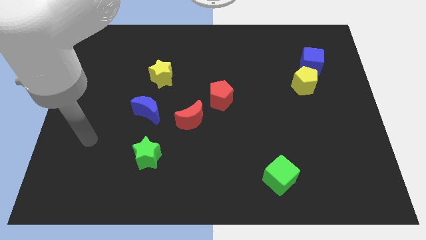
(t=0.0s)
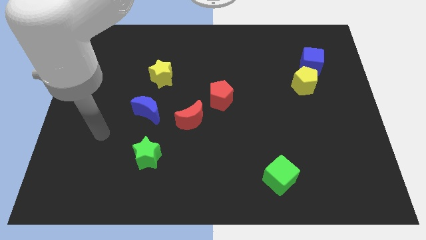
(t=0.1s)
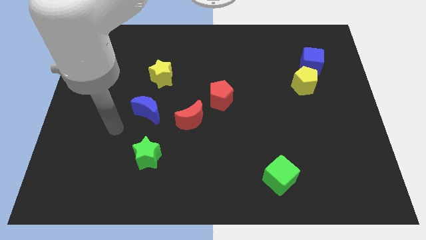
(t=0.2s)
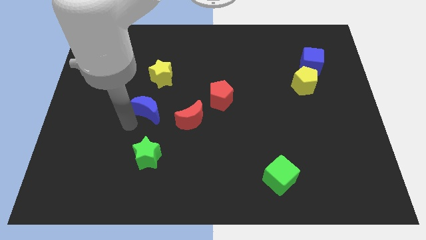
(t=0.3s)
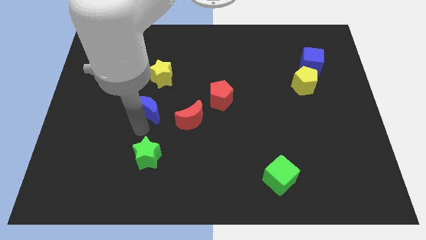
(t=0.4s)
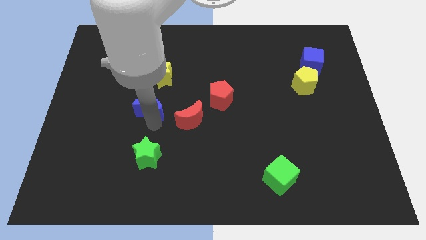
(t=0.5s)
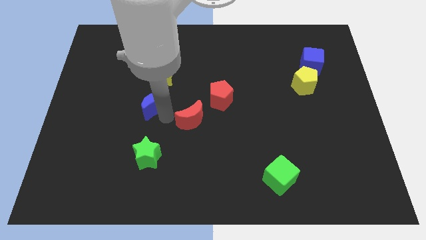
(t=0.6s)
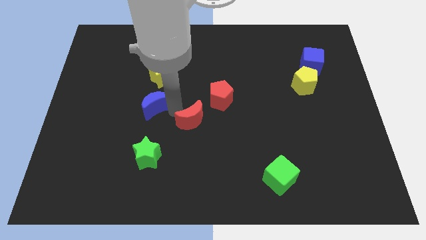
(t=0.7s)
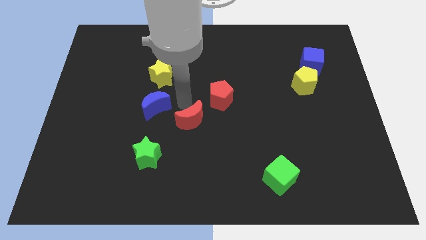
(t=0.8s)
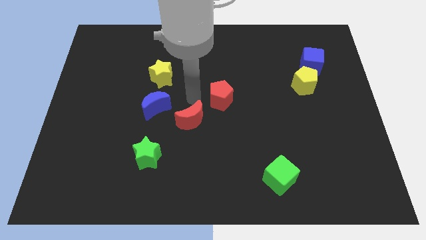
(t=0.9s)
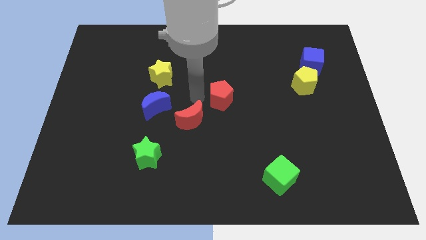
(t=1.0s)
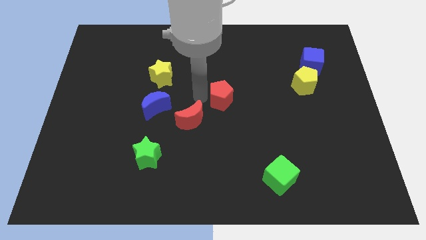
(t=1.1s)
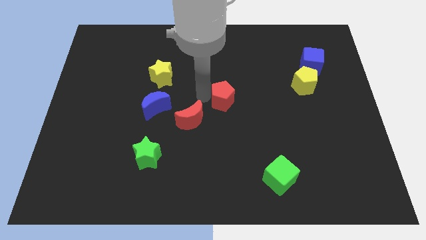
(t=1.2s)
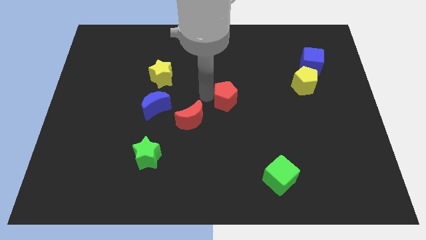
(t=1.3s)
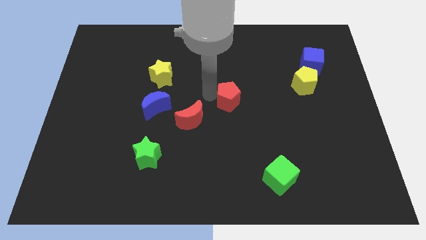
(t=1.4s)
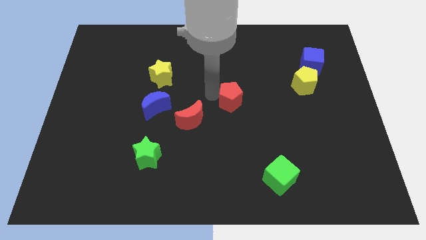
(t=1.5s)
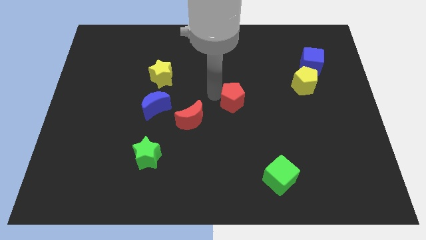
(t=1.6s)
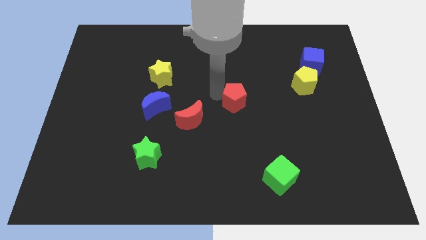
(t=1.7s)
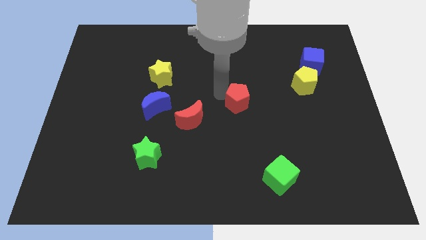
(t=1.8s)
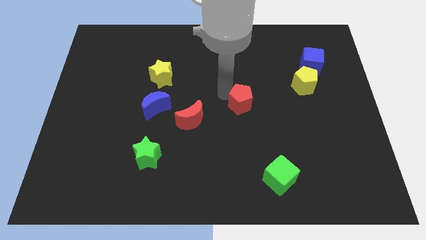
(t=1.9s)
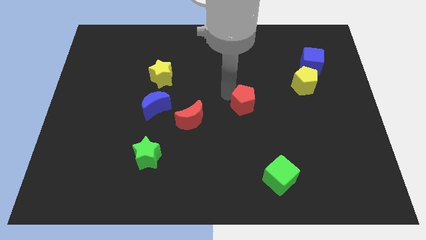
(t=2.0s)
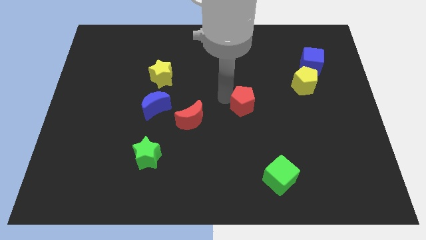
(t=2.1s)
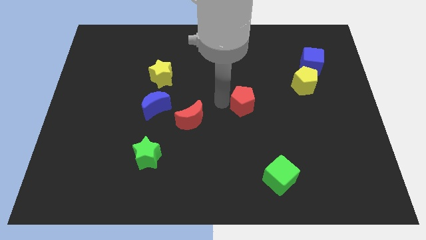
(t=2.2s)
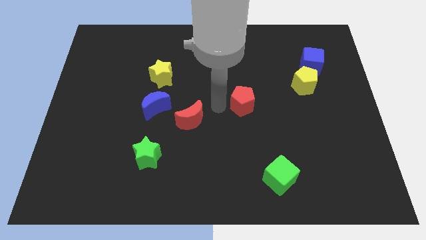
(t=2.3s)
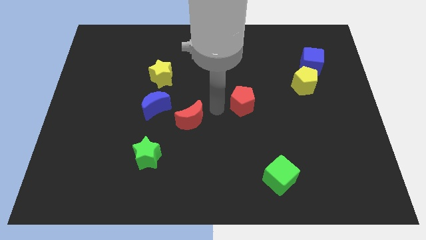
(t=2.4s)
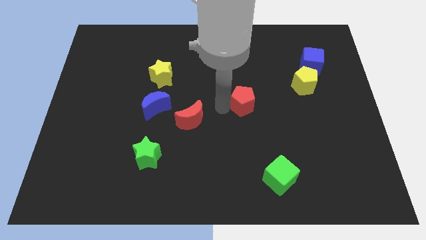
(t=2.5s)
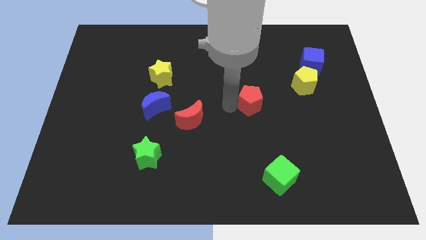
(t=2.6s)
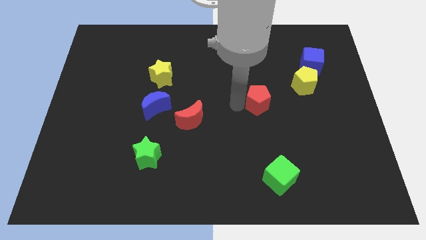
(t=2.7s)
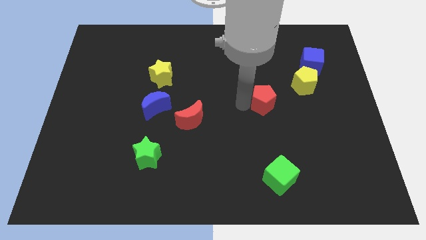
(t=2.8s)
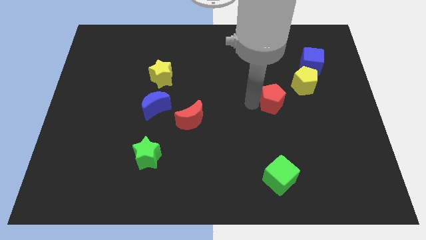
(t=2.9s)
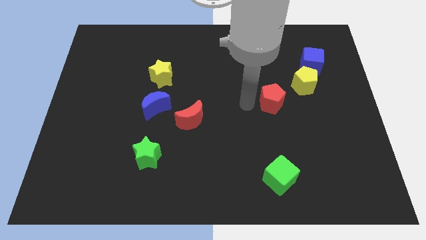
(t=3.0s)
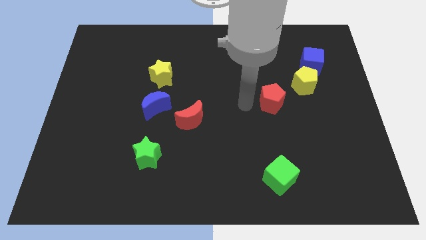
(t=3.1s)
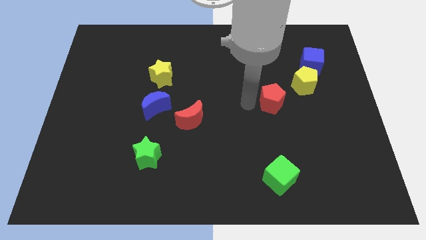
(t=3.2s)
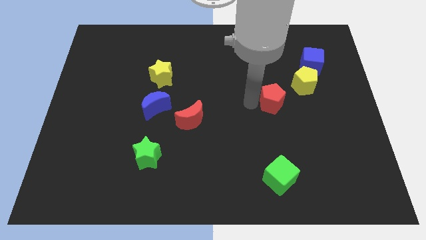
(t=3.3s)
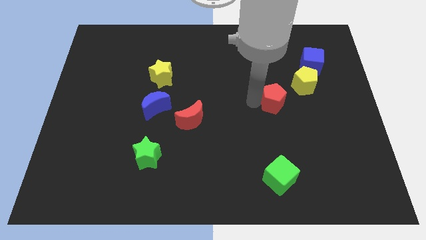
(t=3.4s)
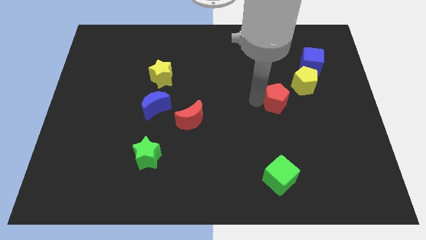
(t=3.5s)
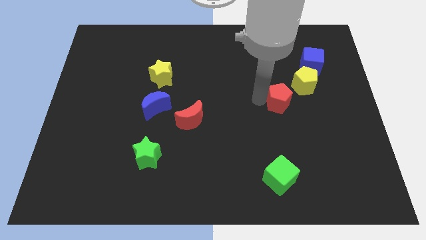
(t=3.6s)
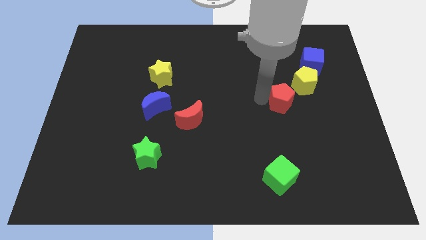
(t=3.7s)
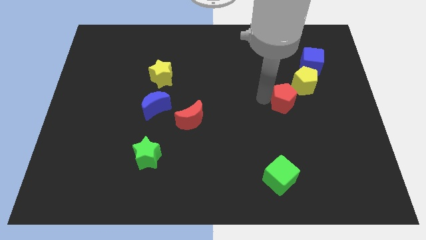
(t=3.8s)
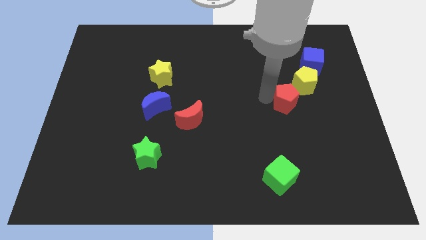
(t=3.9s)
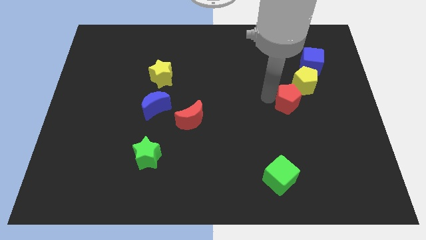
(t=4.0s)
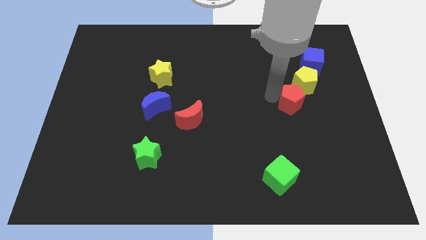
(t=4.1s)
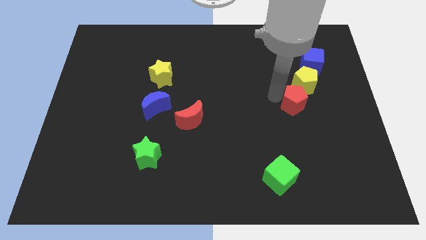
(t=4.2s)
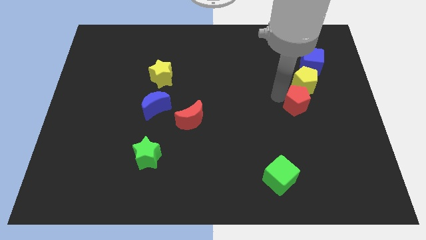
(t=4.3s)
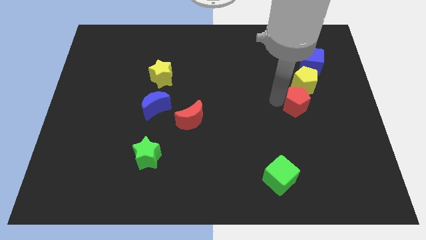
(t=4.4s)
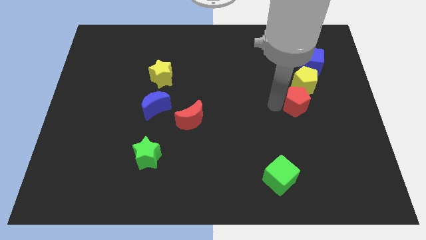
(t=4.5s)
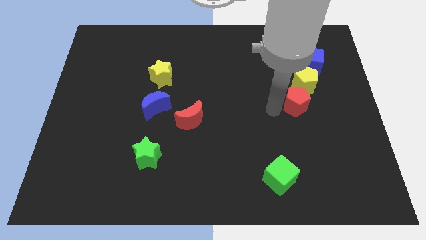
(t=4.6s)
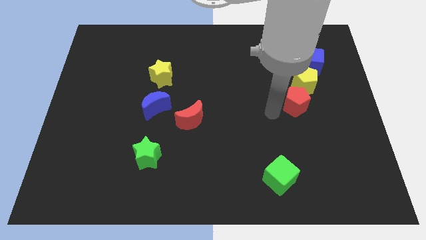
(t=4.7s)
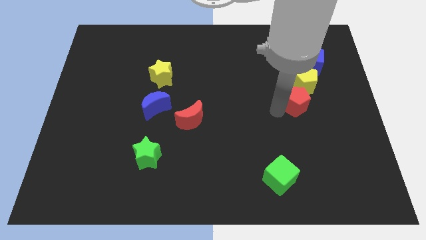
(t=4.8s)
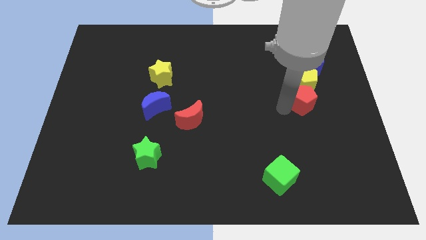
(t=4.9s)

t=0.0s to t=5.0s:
slide the red pentagon to the bottom of the blue cube

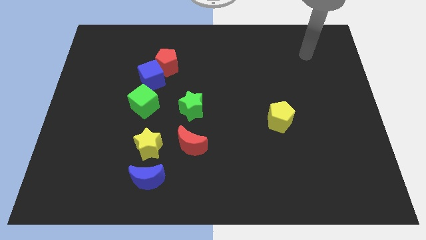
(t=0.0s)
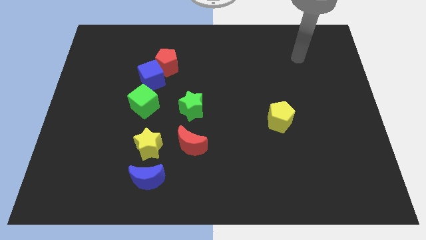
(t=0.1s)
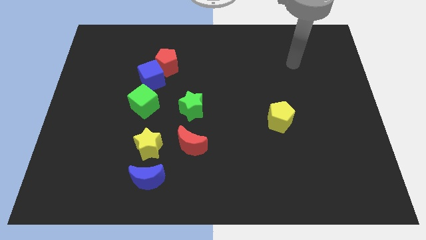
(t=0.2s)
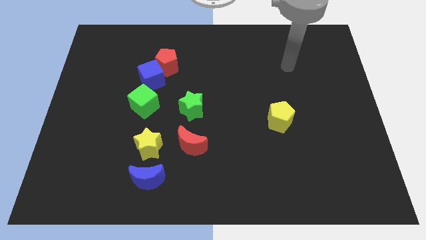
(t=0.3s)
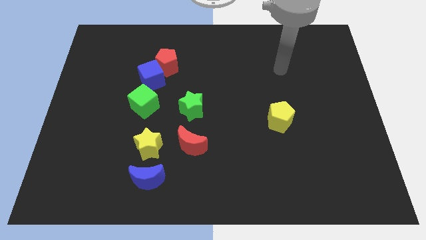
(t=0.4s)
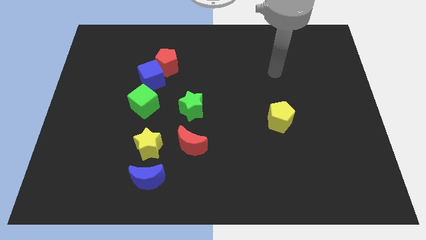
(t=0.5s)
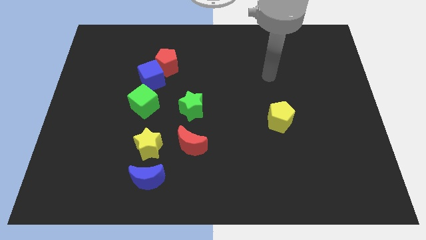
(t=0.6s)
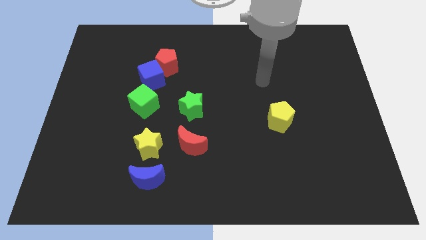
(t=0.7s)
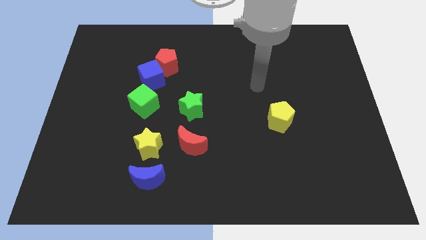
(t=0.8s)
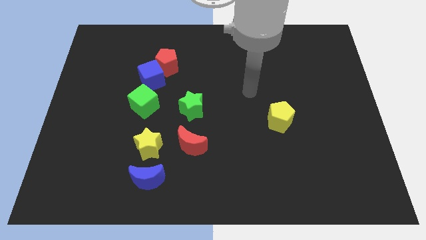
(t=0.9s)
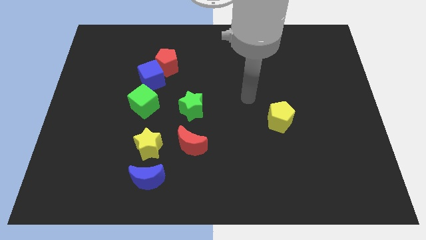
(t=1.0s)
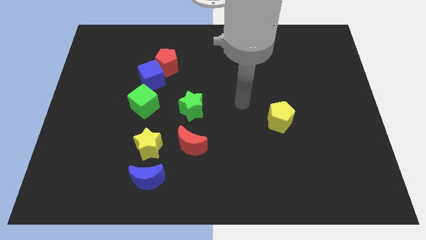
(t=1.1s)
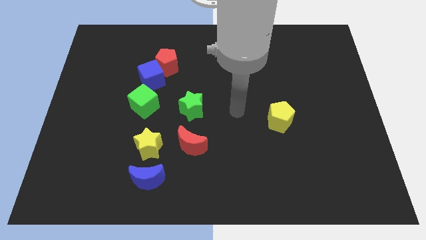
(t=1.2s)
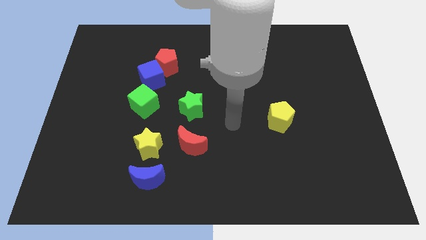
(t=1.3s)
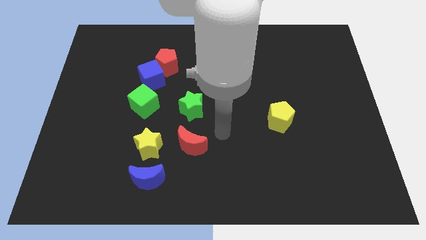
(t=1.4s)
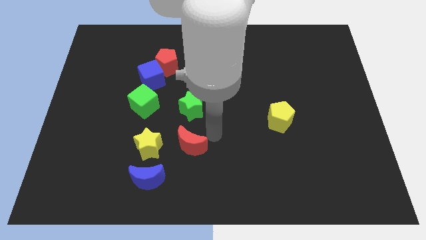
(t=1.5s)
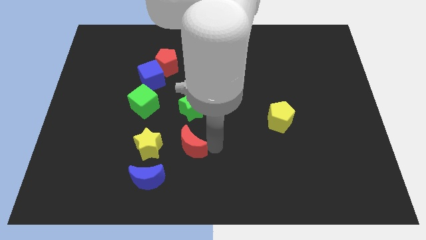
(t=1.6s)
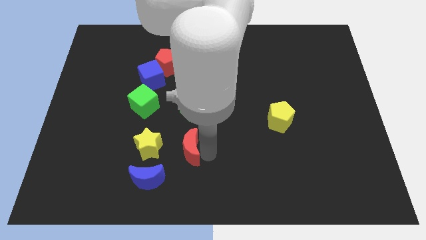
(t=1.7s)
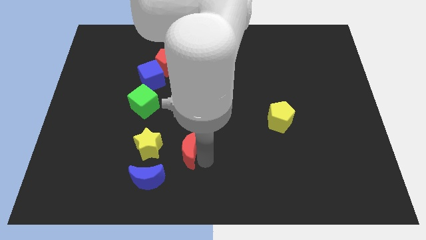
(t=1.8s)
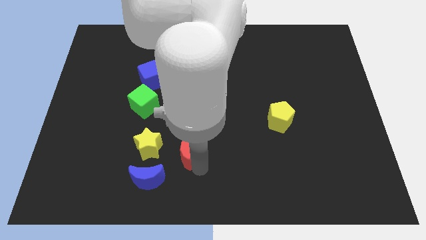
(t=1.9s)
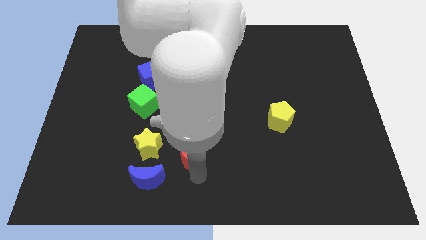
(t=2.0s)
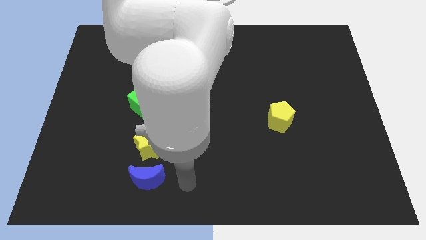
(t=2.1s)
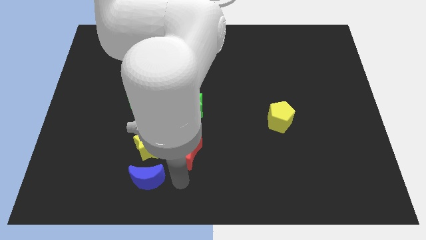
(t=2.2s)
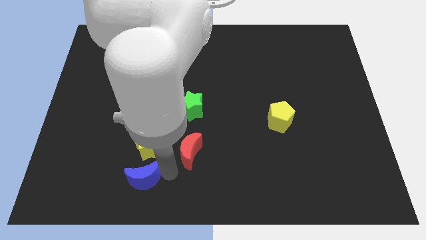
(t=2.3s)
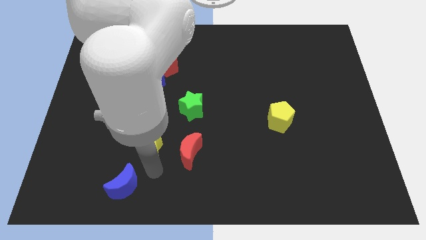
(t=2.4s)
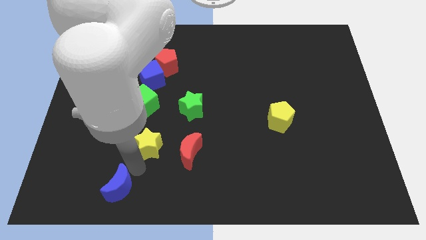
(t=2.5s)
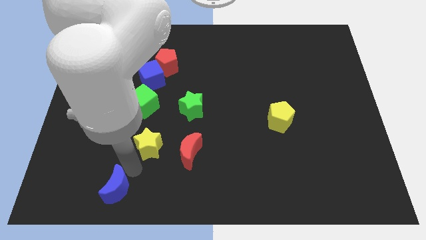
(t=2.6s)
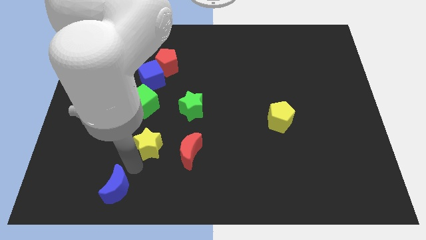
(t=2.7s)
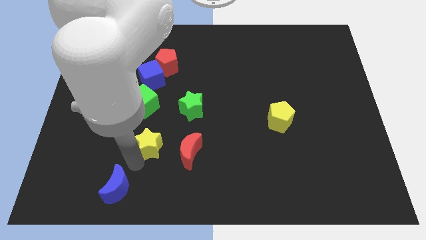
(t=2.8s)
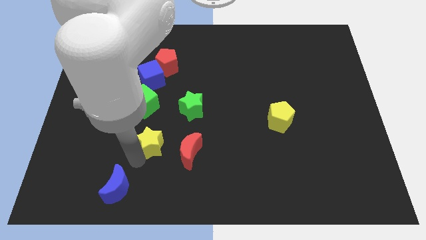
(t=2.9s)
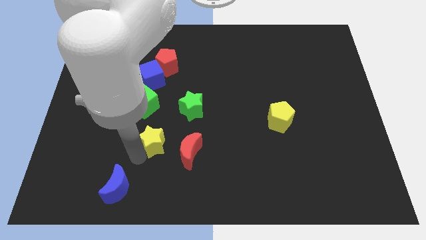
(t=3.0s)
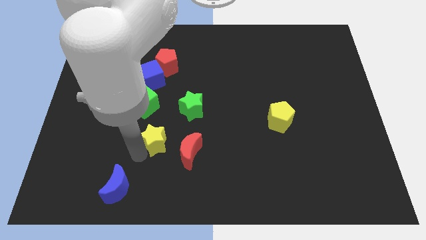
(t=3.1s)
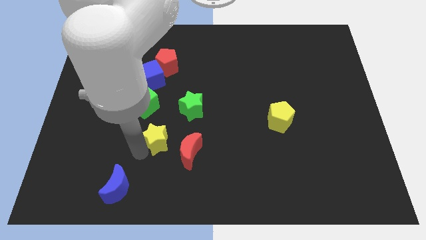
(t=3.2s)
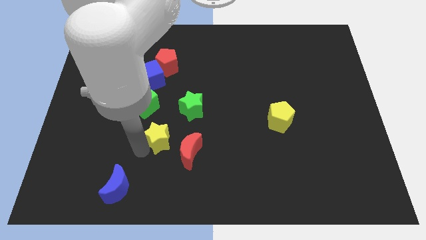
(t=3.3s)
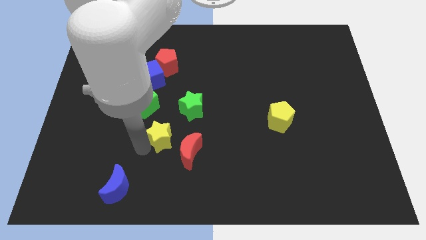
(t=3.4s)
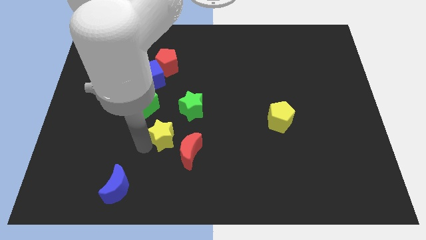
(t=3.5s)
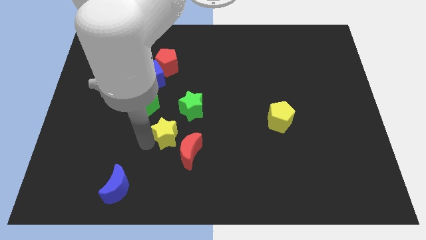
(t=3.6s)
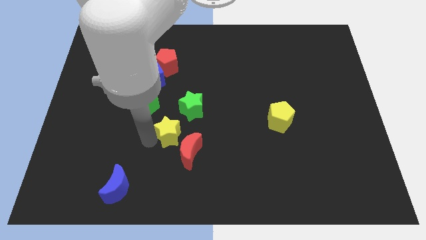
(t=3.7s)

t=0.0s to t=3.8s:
move the yellow star to the top side of the red moon
